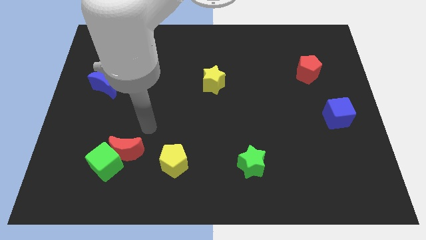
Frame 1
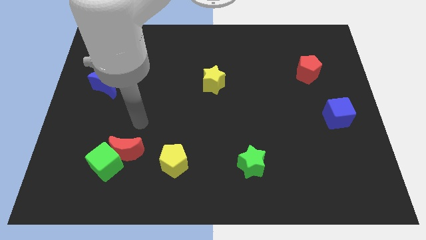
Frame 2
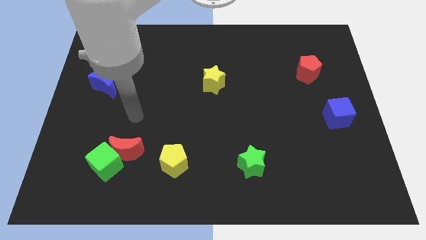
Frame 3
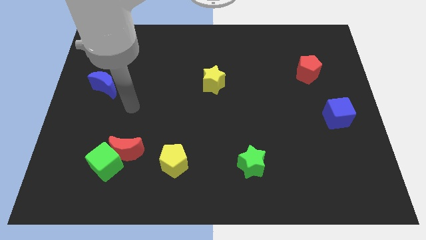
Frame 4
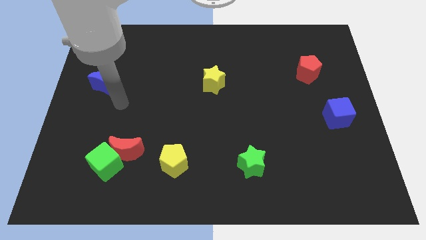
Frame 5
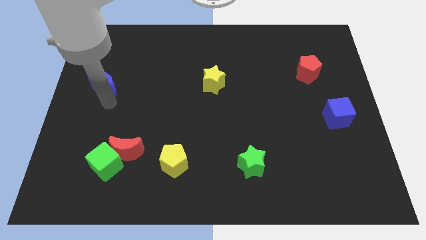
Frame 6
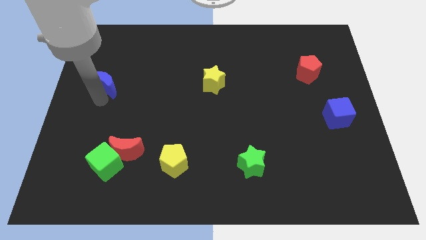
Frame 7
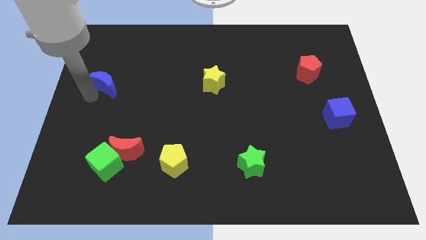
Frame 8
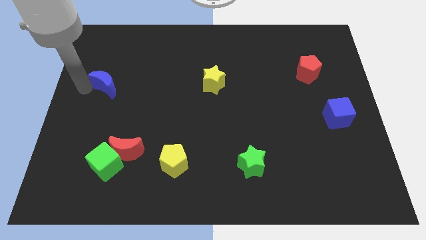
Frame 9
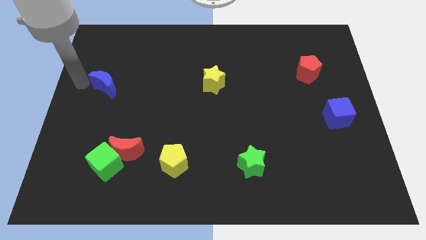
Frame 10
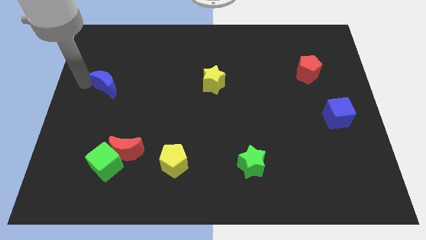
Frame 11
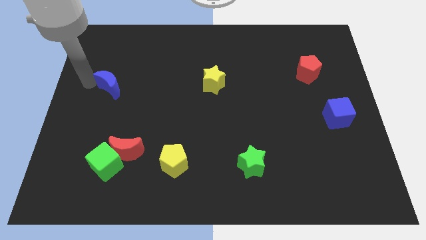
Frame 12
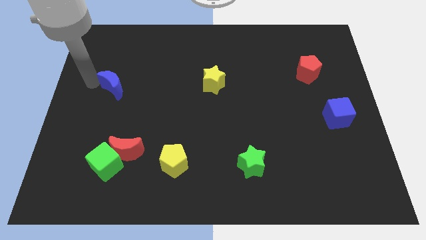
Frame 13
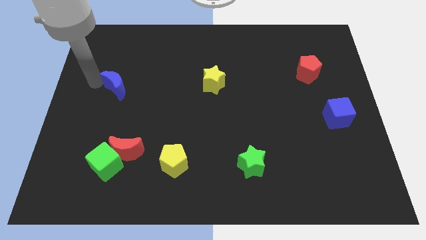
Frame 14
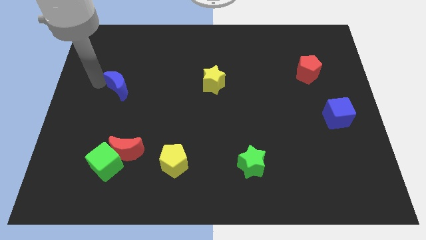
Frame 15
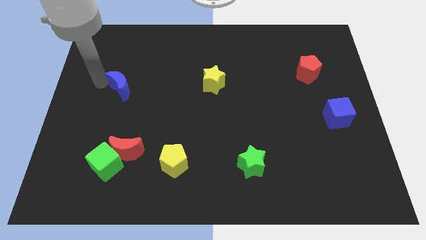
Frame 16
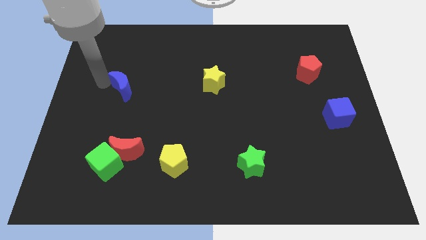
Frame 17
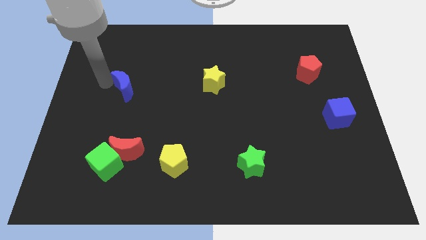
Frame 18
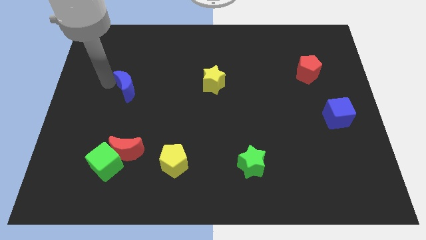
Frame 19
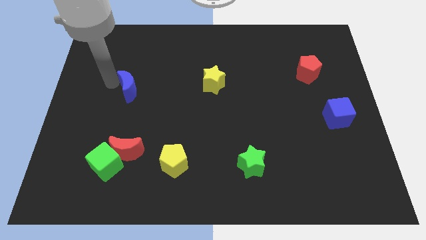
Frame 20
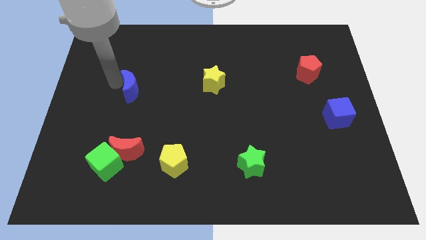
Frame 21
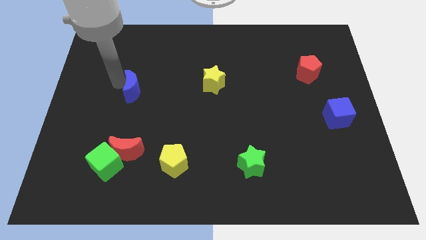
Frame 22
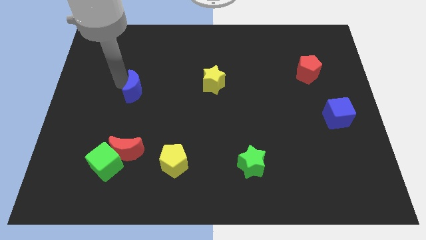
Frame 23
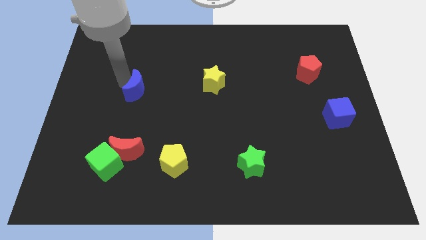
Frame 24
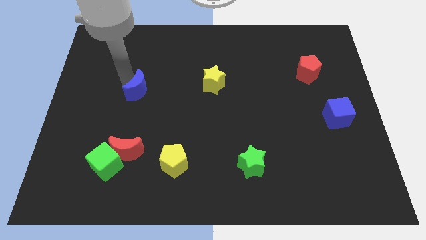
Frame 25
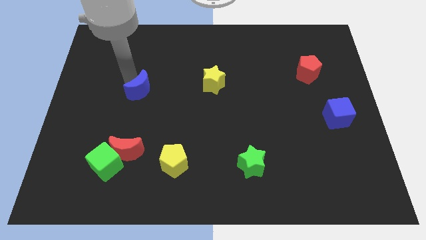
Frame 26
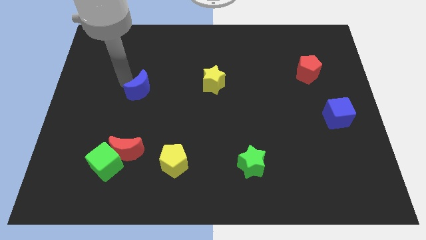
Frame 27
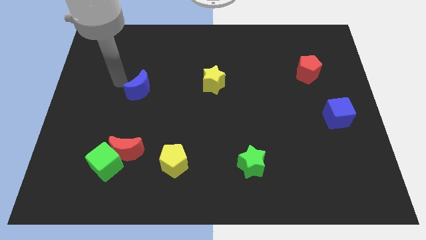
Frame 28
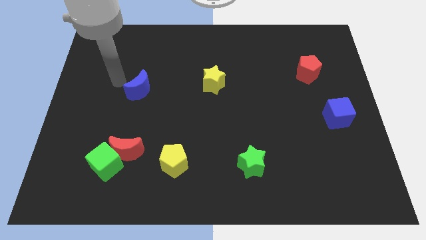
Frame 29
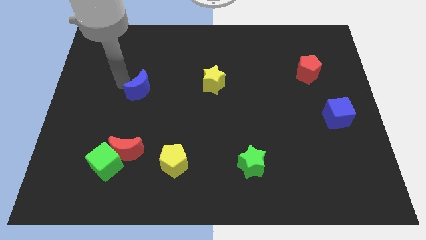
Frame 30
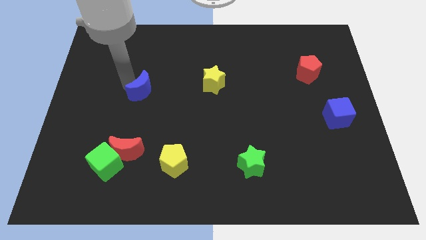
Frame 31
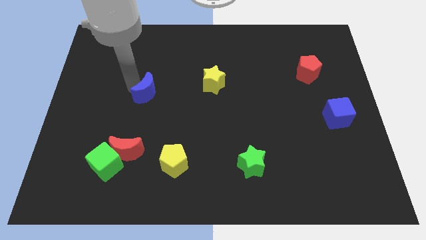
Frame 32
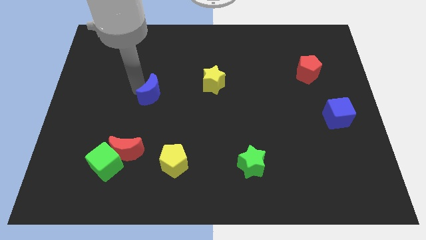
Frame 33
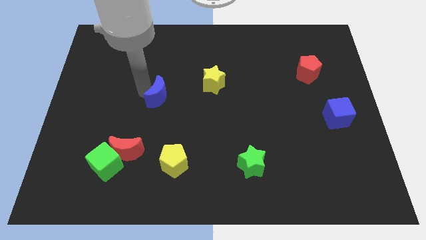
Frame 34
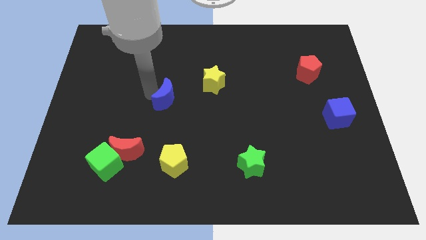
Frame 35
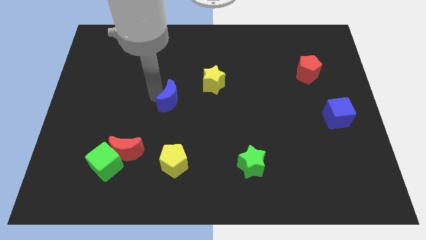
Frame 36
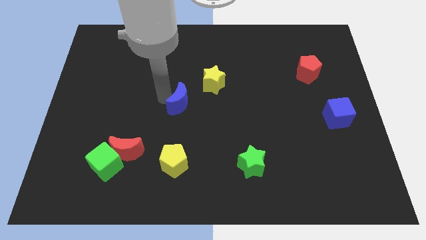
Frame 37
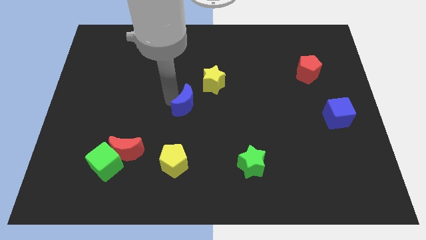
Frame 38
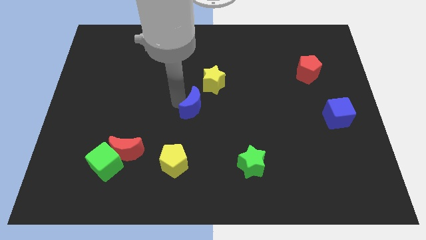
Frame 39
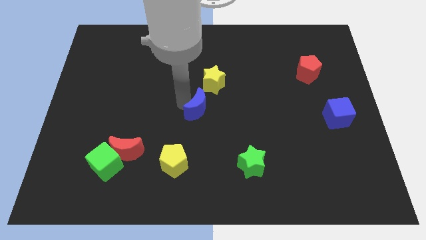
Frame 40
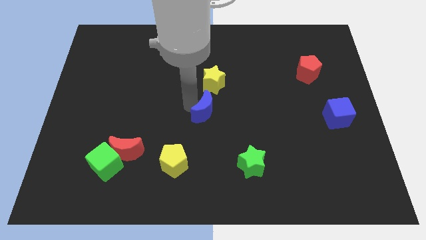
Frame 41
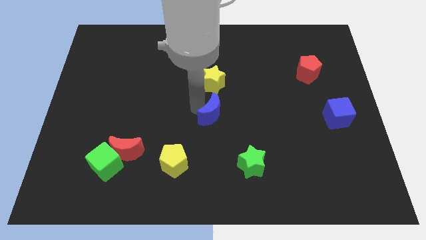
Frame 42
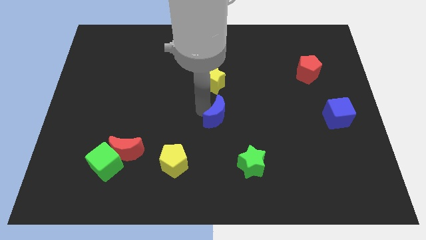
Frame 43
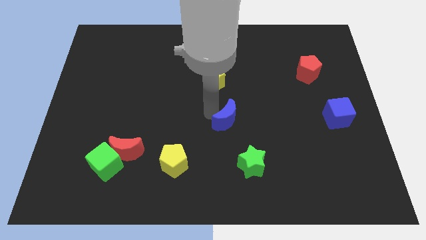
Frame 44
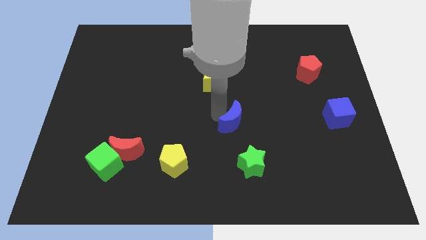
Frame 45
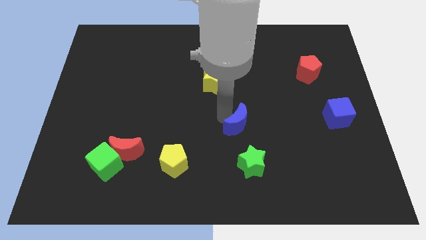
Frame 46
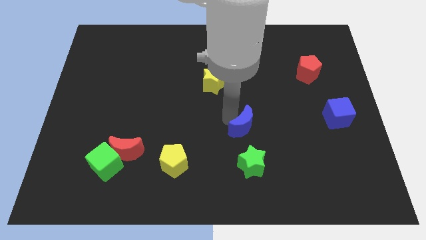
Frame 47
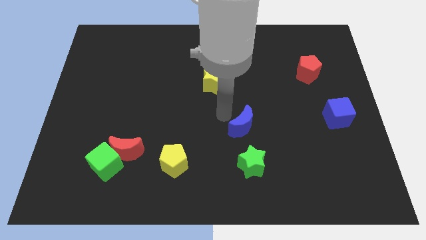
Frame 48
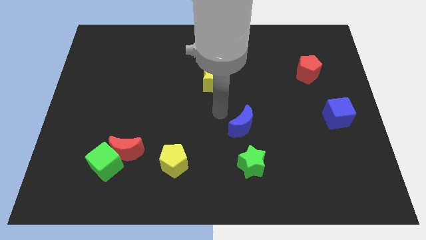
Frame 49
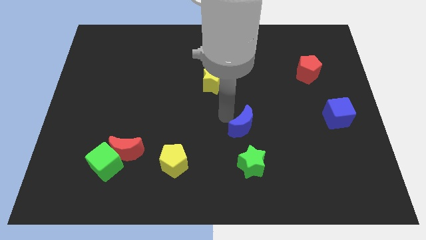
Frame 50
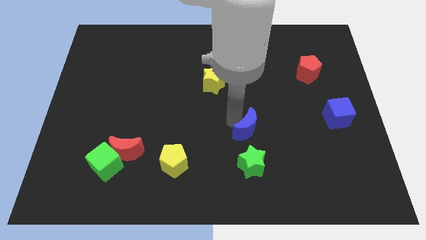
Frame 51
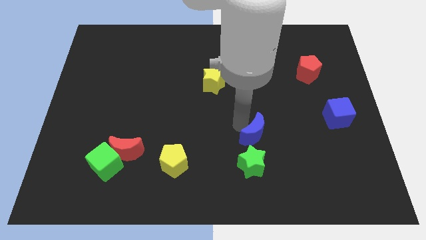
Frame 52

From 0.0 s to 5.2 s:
move the blue moon diagonally up and to the right of the green star
